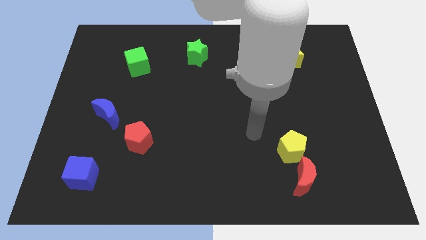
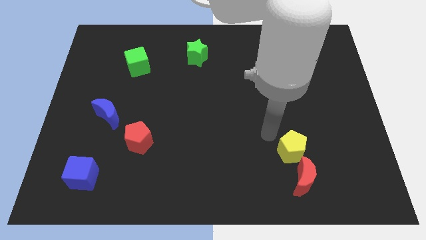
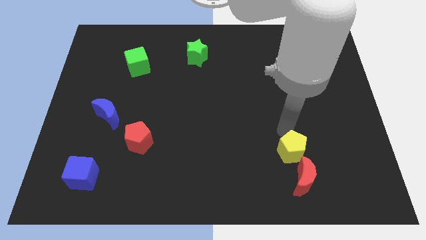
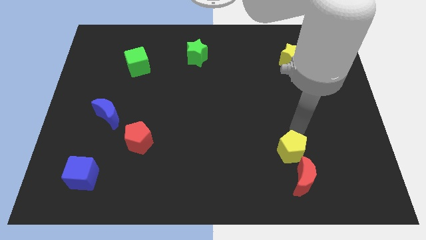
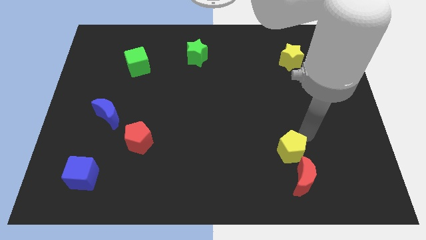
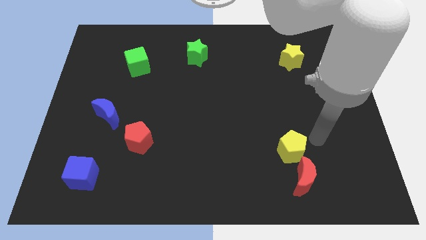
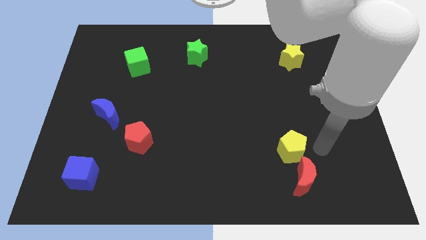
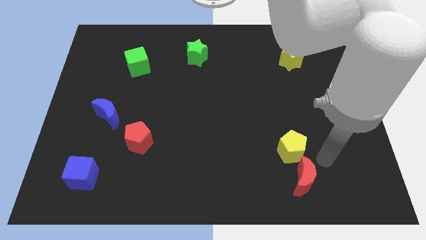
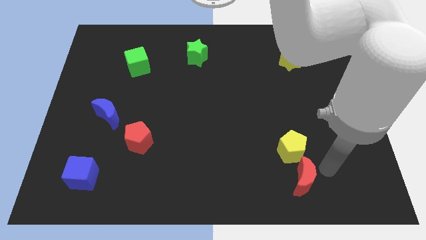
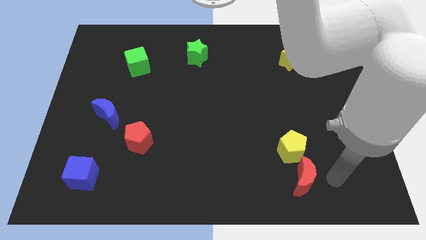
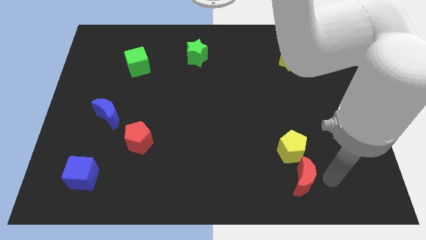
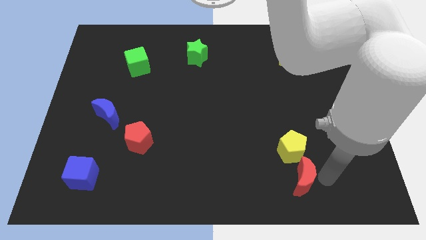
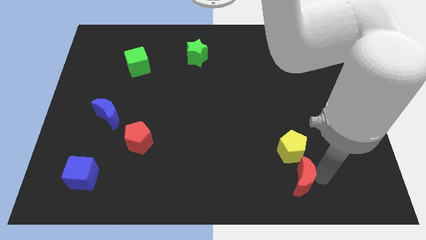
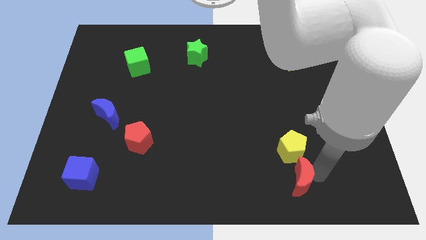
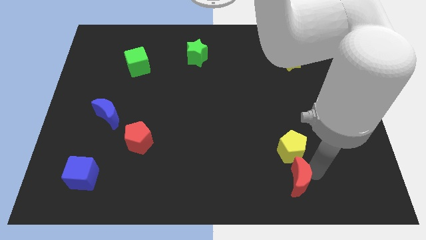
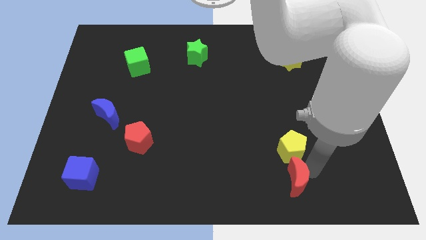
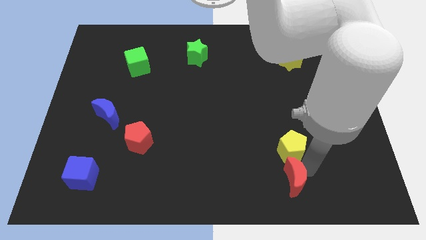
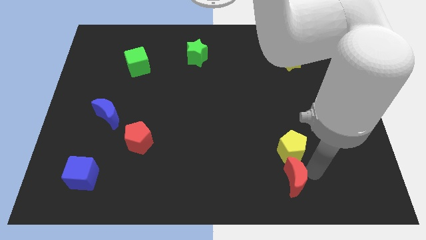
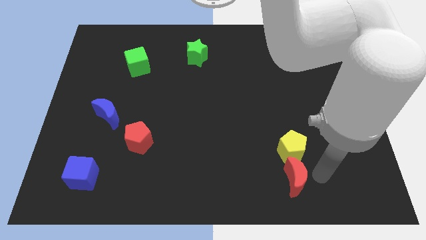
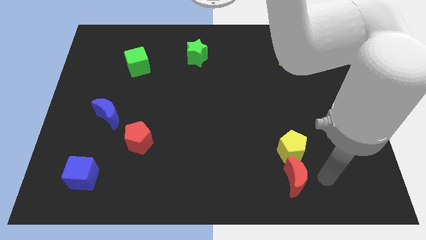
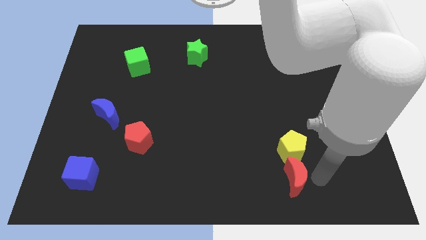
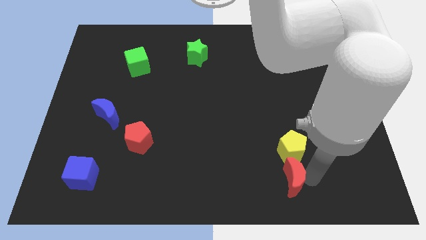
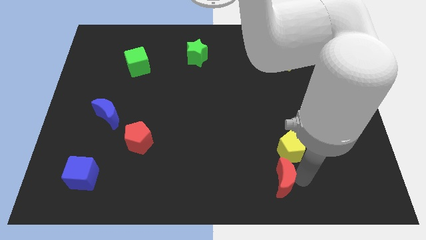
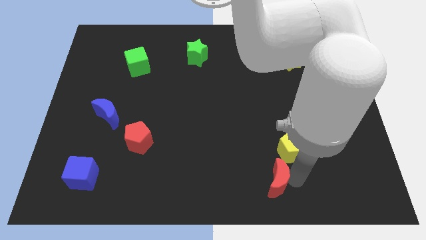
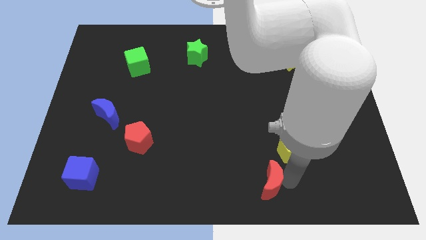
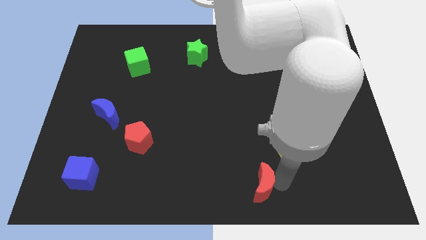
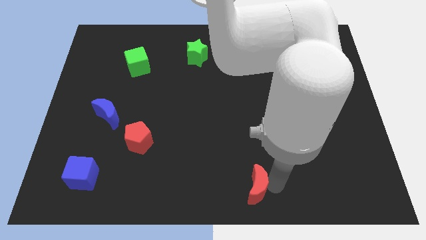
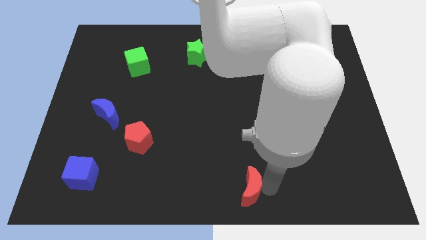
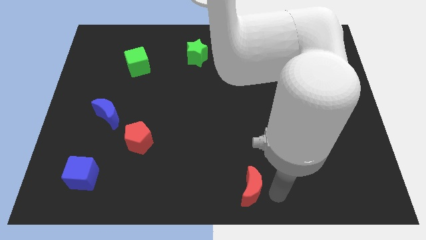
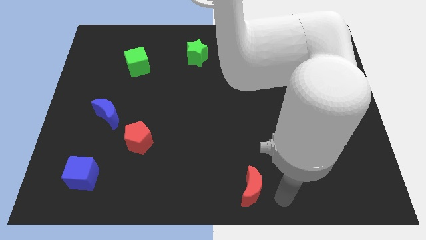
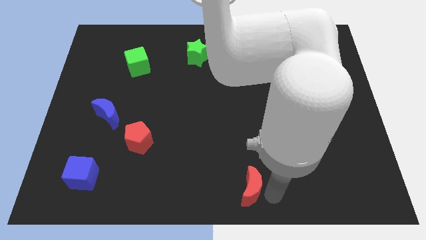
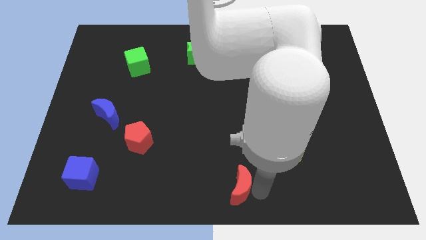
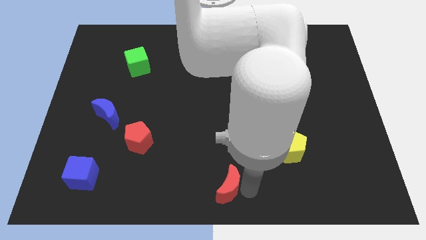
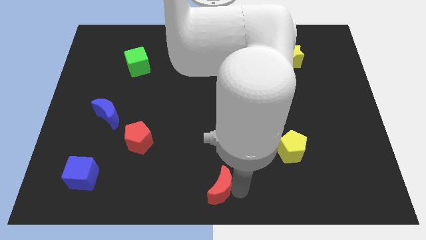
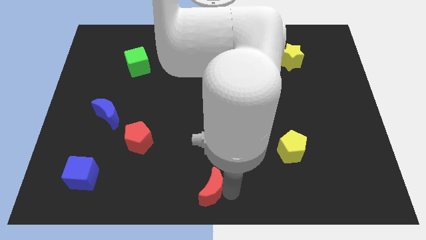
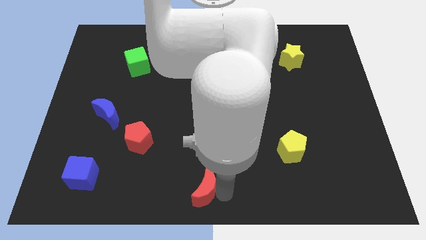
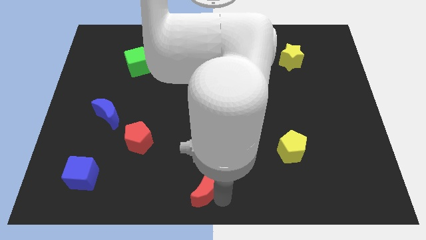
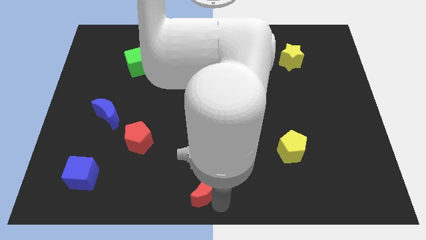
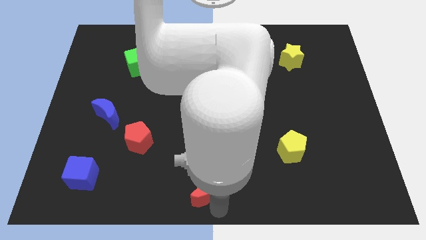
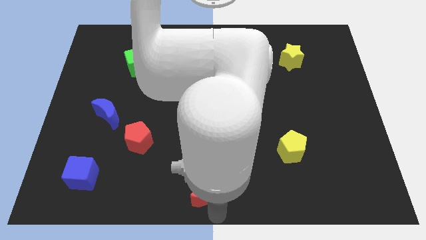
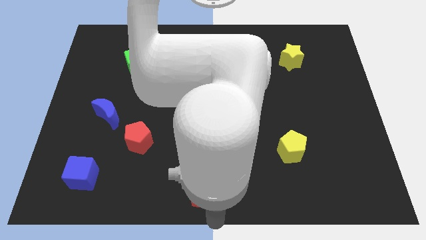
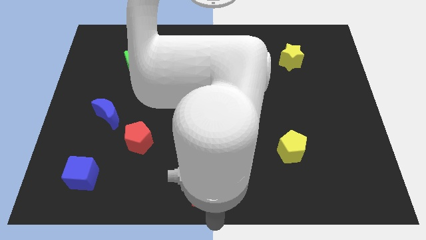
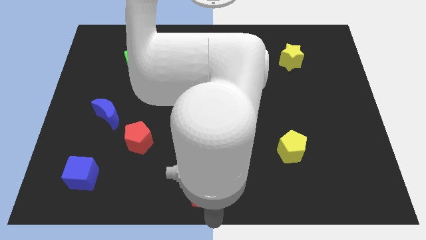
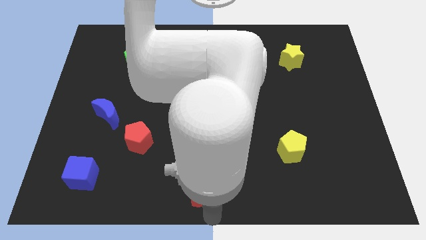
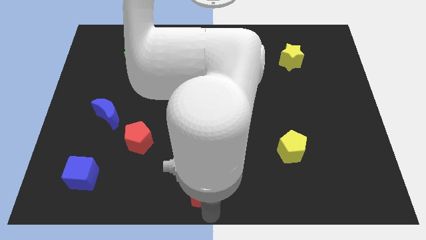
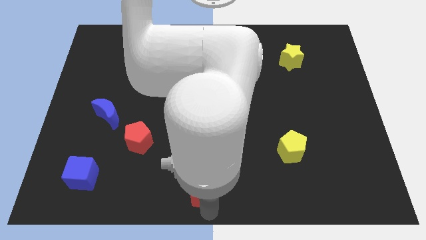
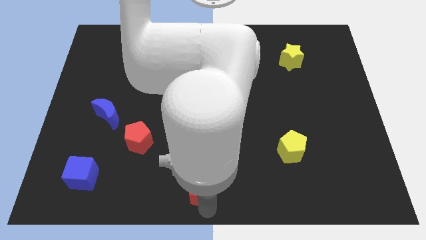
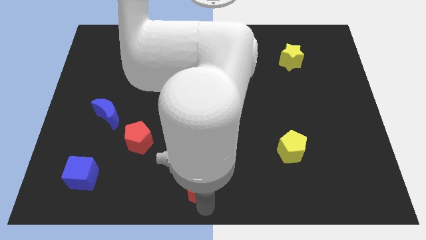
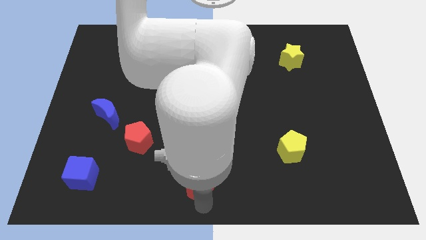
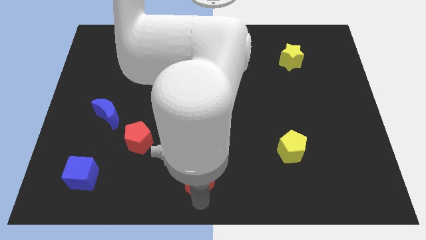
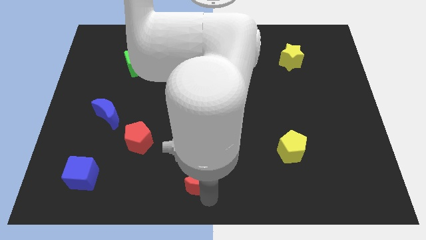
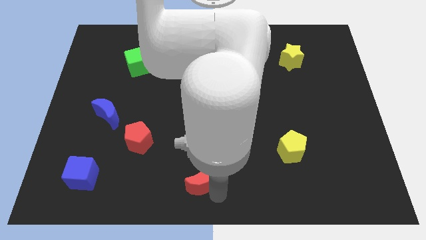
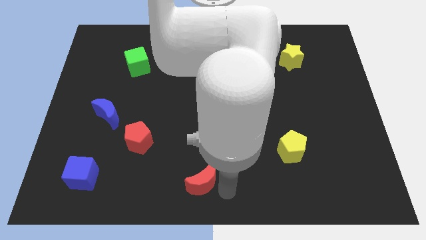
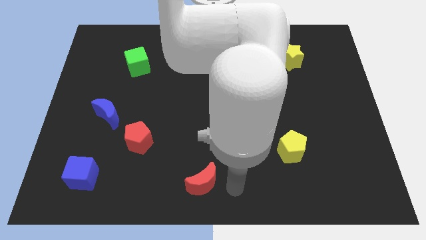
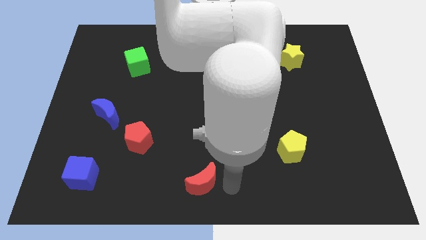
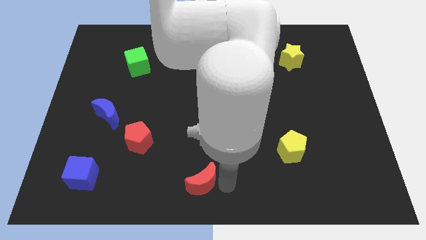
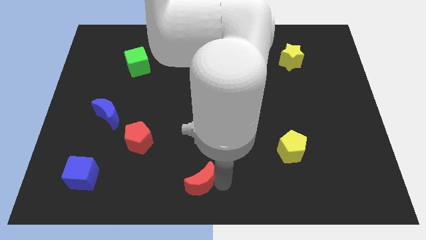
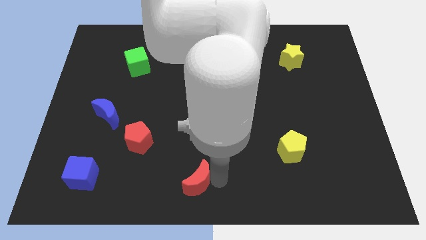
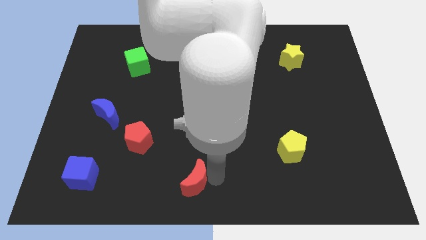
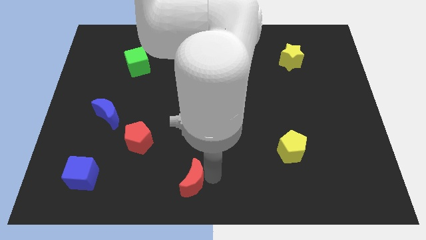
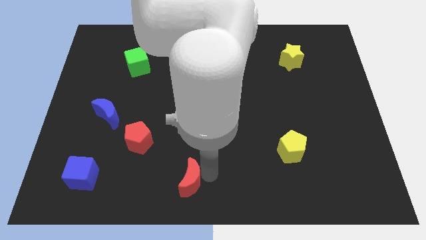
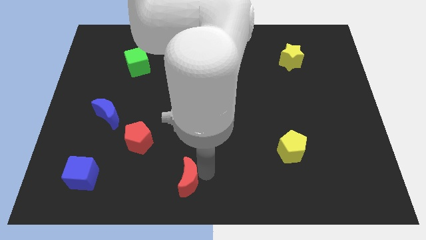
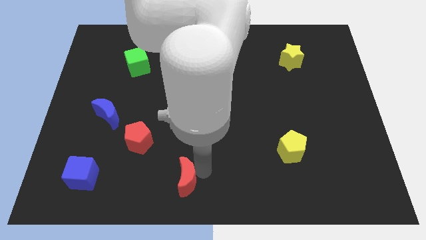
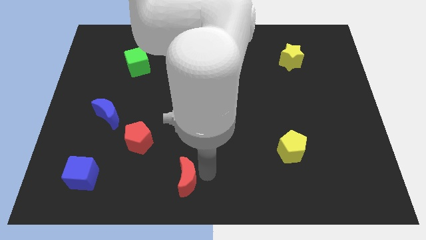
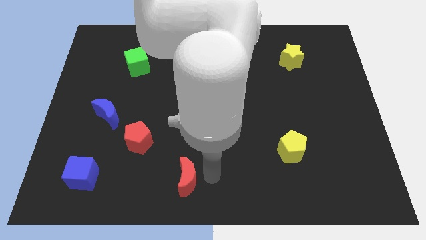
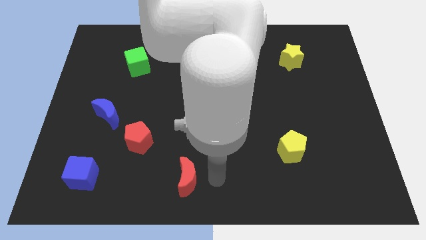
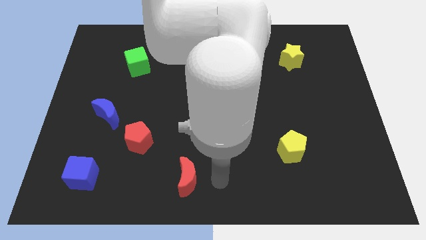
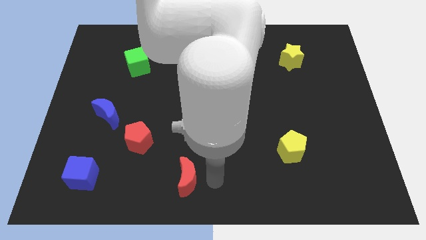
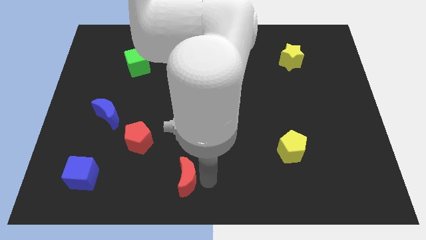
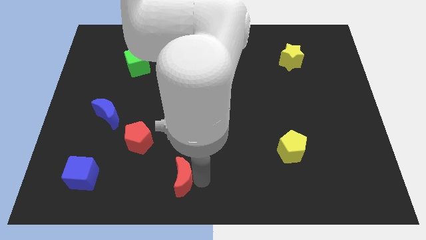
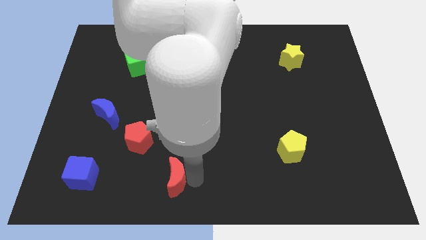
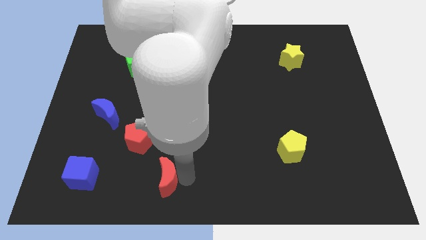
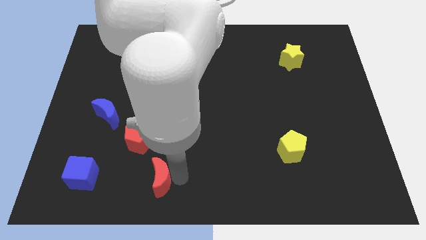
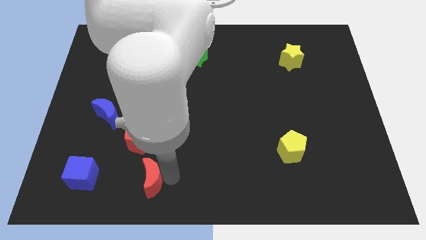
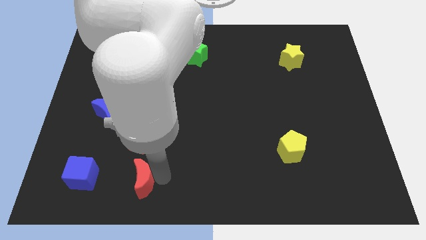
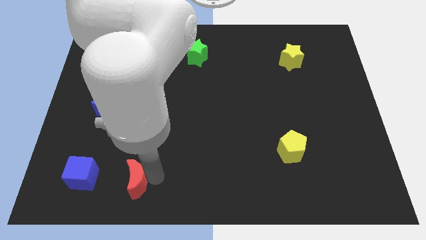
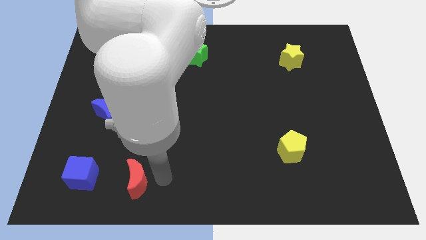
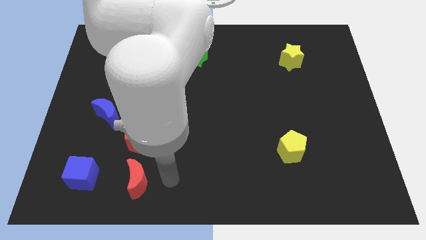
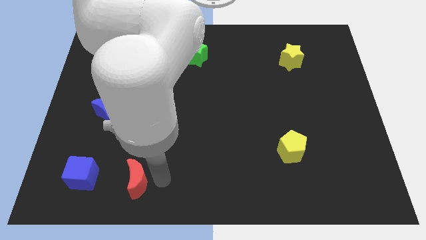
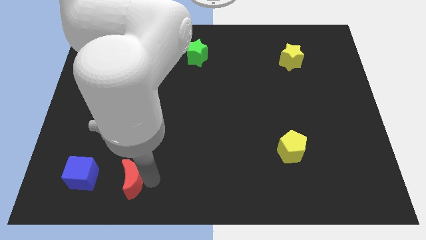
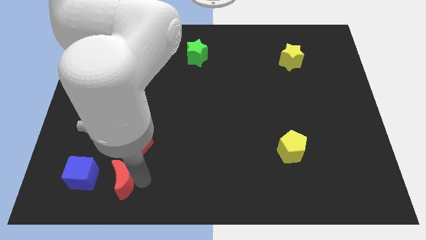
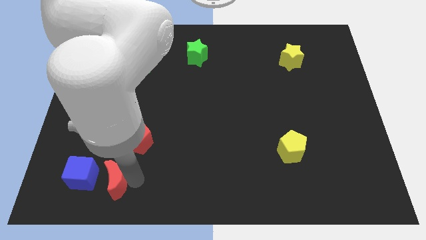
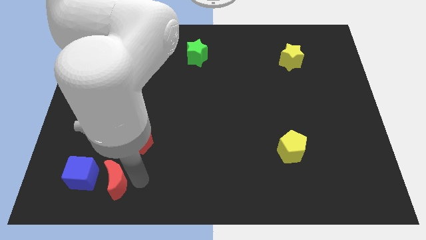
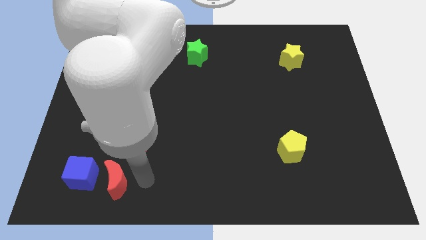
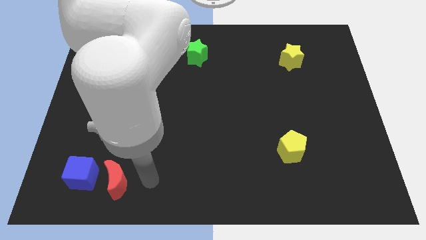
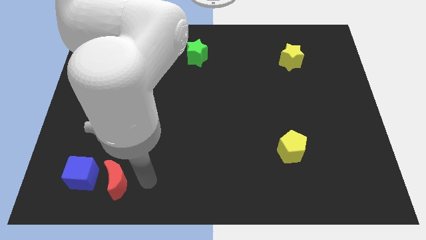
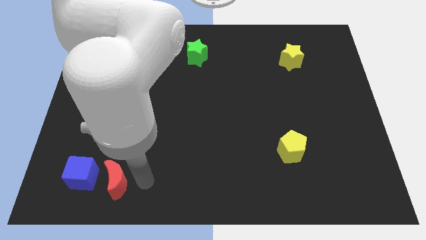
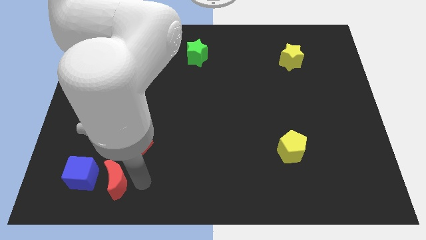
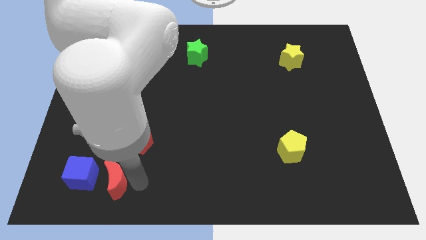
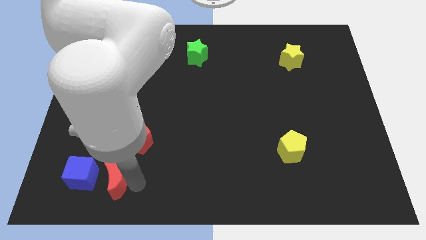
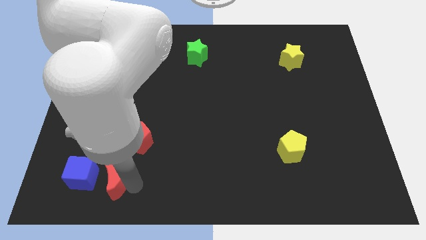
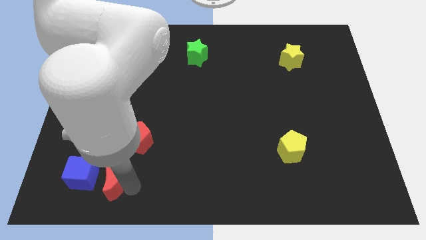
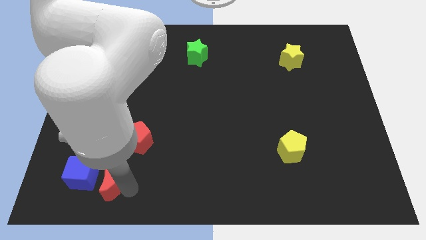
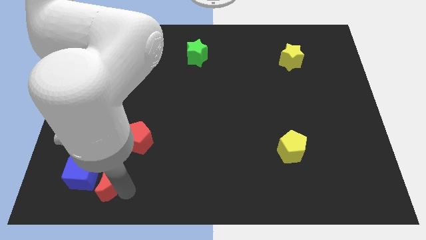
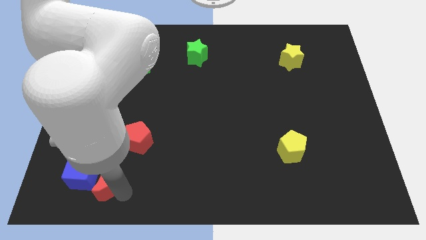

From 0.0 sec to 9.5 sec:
slide the red moon to the blue cube
